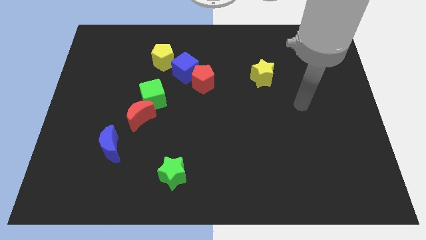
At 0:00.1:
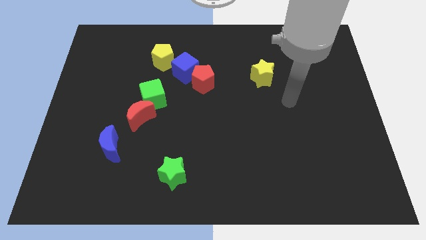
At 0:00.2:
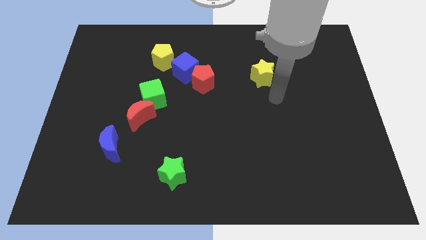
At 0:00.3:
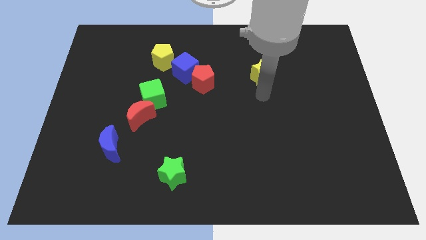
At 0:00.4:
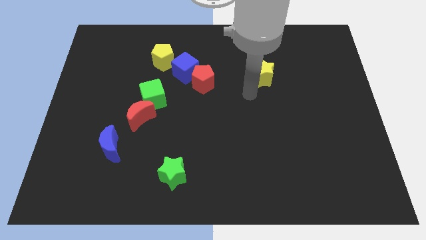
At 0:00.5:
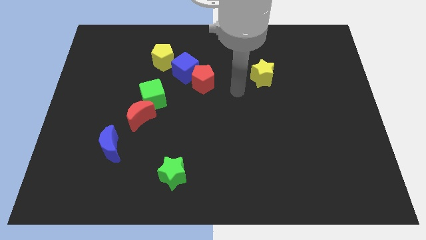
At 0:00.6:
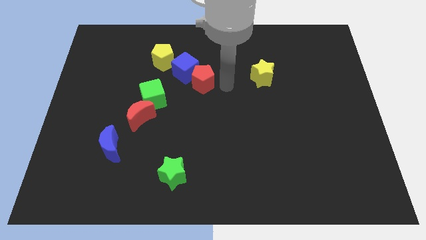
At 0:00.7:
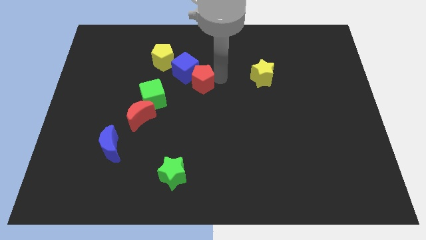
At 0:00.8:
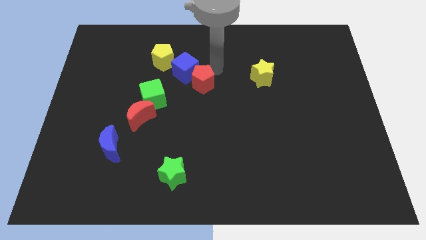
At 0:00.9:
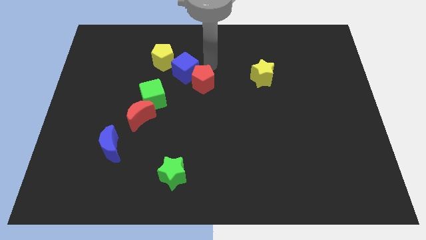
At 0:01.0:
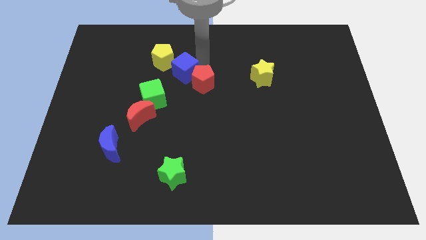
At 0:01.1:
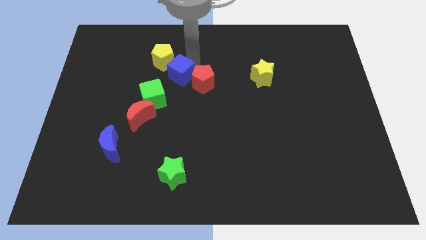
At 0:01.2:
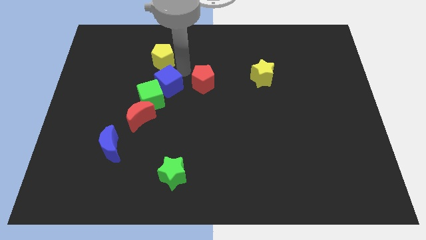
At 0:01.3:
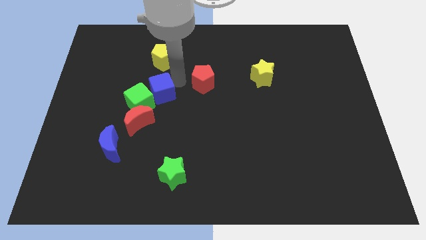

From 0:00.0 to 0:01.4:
separate the red pentagon from the blue cube

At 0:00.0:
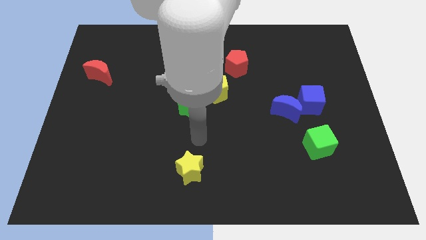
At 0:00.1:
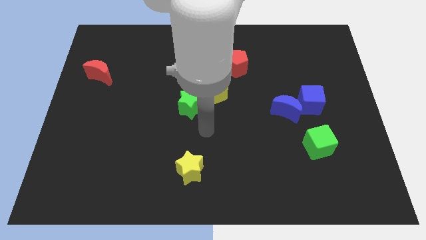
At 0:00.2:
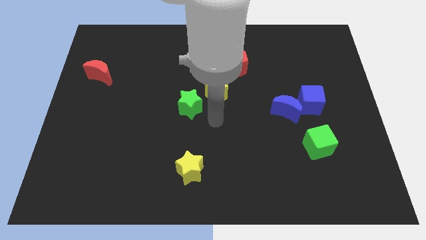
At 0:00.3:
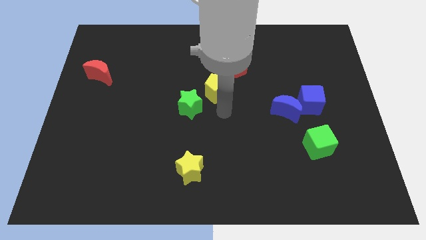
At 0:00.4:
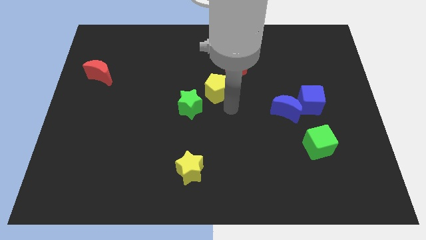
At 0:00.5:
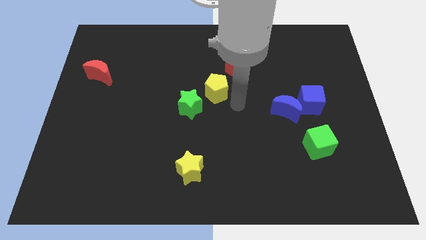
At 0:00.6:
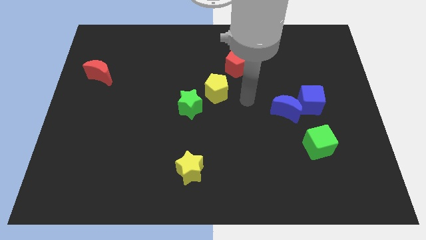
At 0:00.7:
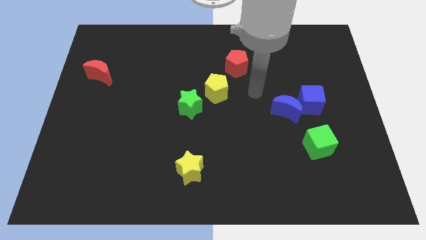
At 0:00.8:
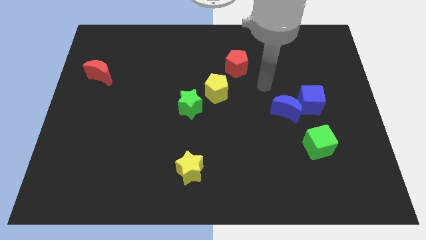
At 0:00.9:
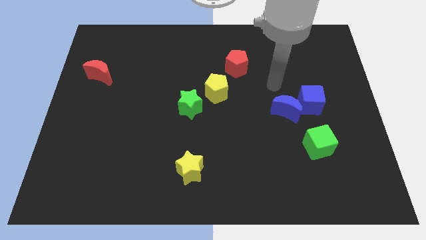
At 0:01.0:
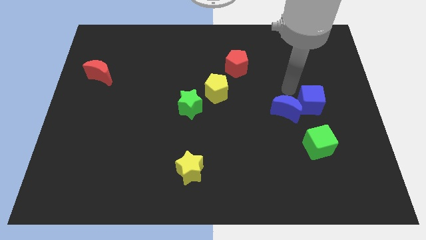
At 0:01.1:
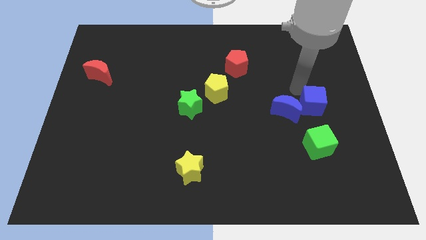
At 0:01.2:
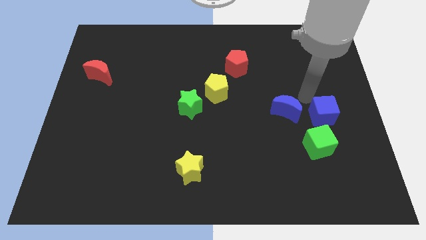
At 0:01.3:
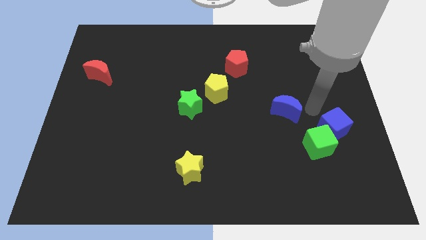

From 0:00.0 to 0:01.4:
pull the blue moon apart from the blue cube

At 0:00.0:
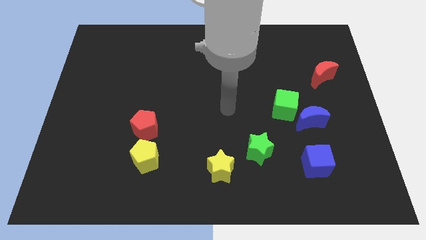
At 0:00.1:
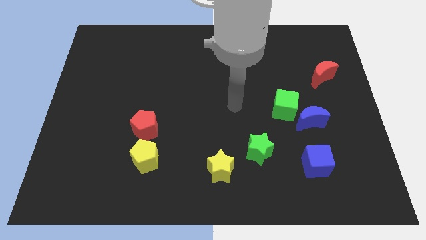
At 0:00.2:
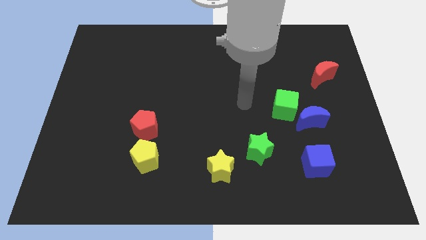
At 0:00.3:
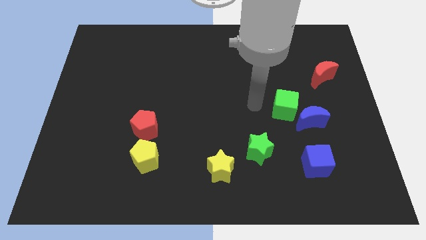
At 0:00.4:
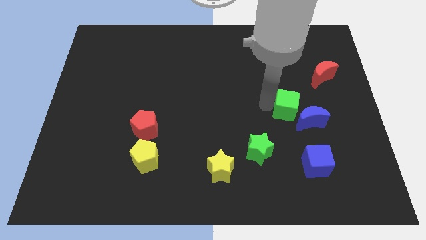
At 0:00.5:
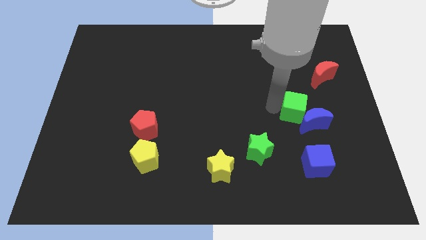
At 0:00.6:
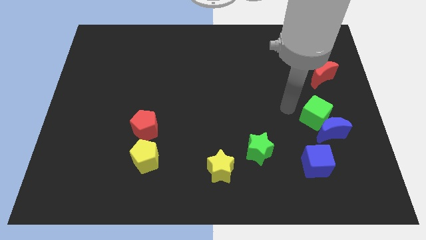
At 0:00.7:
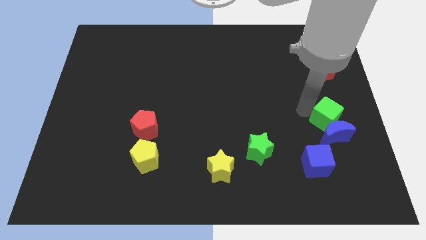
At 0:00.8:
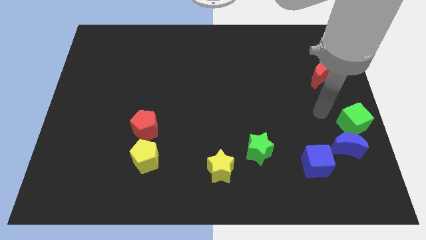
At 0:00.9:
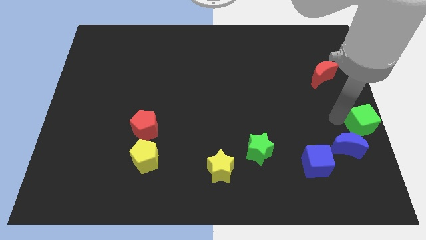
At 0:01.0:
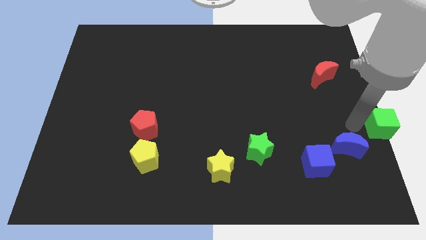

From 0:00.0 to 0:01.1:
pull the blue moon apart from the green cube

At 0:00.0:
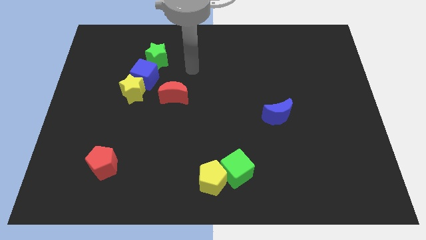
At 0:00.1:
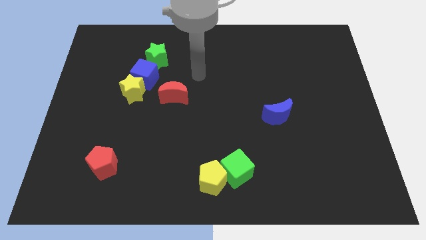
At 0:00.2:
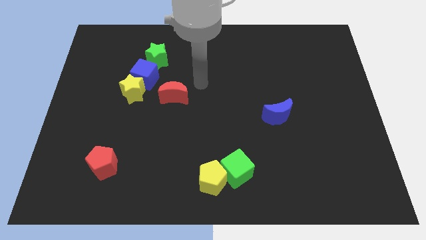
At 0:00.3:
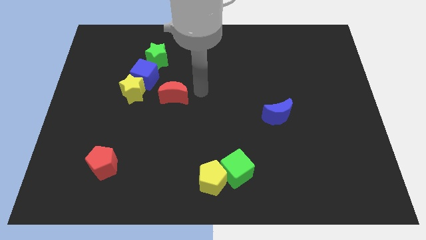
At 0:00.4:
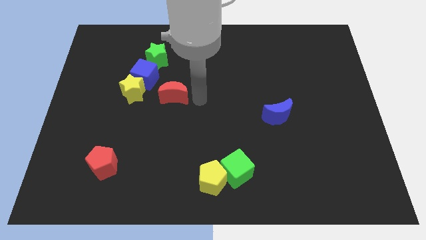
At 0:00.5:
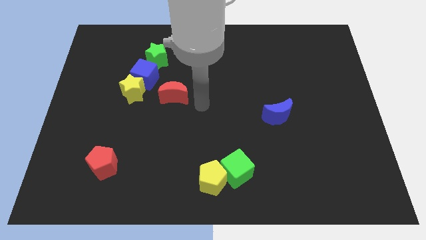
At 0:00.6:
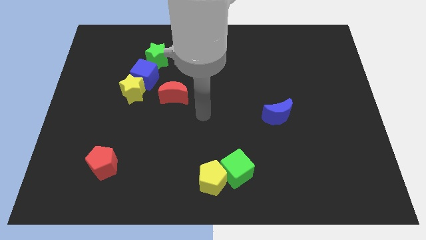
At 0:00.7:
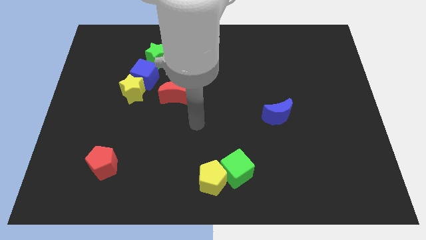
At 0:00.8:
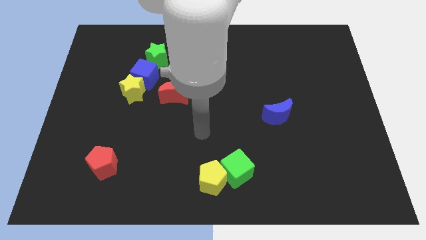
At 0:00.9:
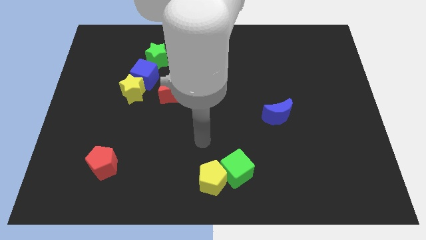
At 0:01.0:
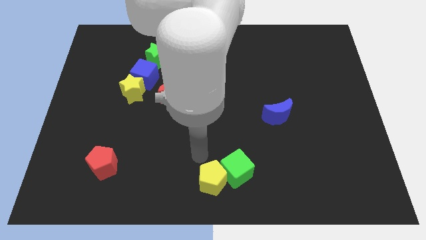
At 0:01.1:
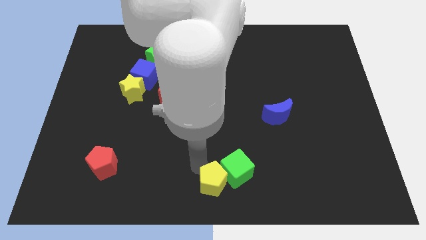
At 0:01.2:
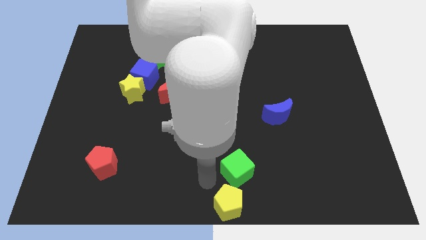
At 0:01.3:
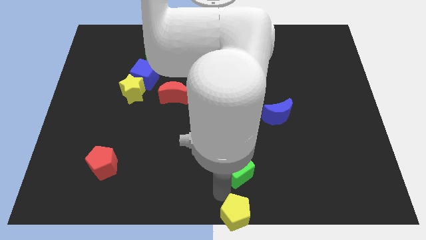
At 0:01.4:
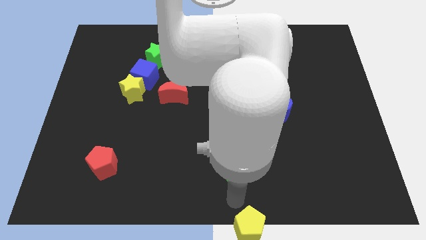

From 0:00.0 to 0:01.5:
move the green cube away from the yellow pentagon

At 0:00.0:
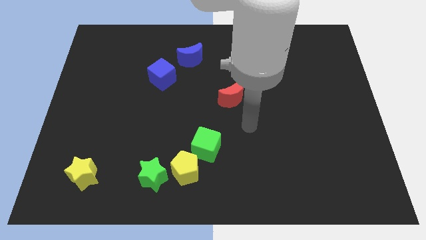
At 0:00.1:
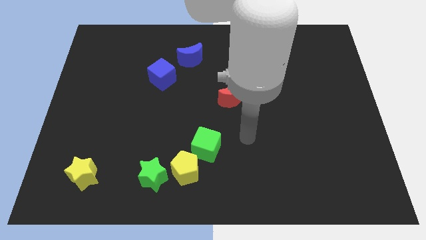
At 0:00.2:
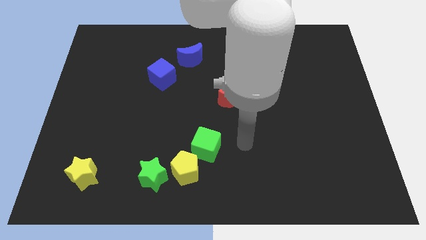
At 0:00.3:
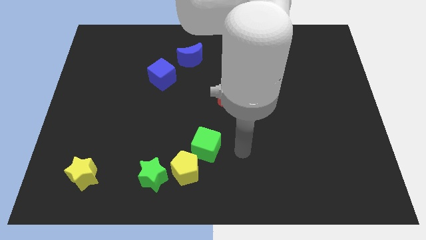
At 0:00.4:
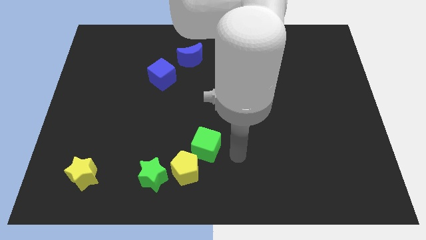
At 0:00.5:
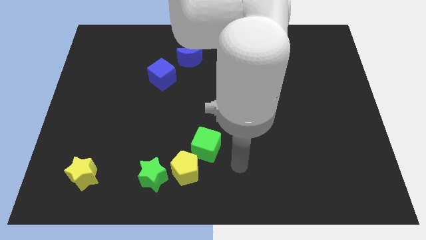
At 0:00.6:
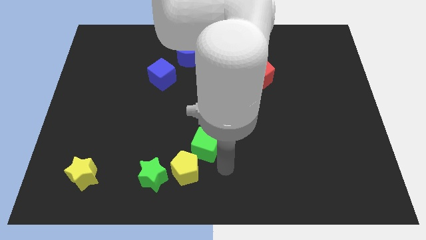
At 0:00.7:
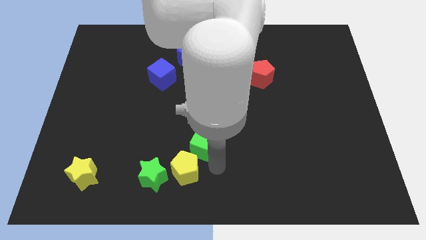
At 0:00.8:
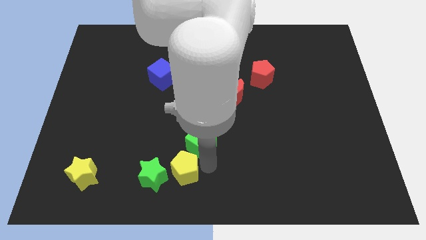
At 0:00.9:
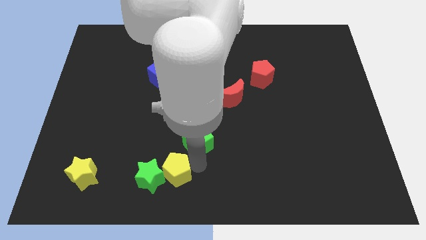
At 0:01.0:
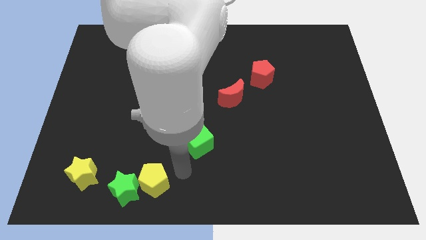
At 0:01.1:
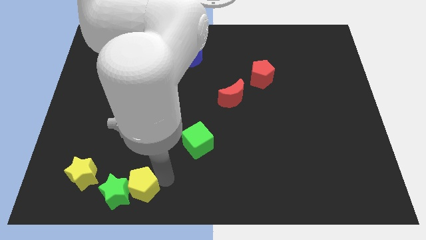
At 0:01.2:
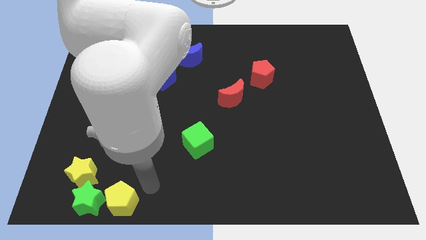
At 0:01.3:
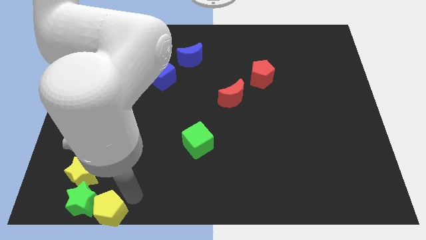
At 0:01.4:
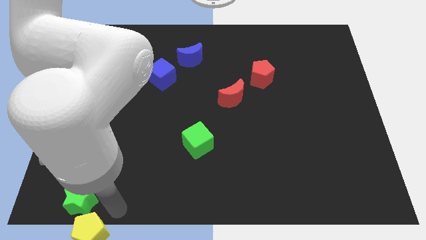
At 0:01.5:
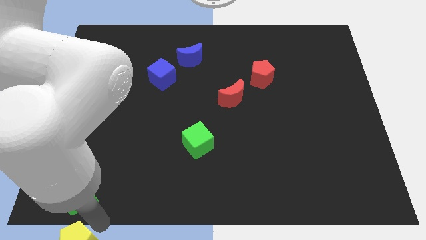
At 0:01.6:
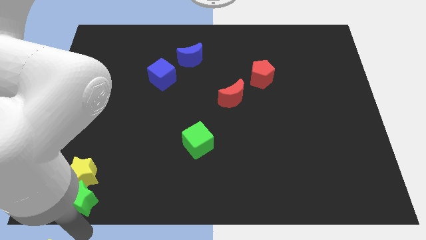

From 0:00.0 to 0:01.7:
move the green star away from the yellow pentagon

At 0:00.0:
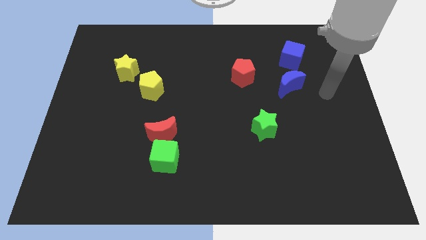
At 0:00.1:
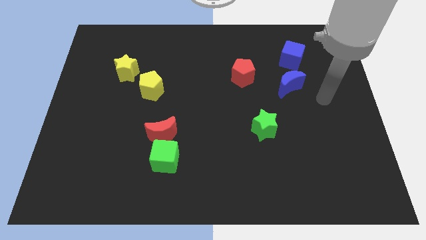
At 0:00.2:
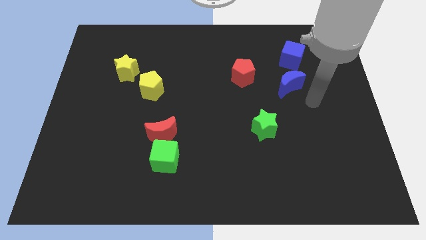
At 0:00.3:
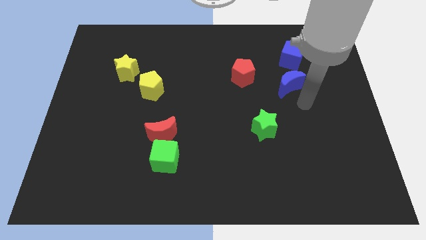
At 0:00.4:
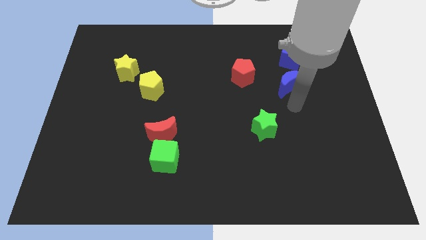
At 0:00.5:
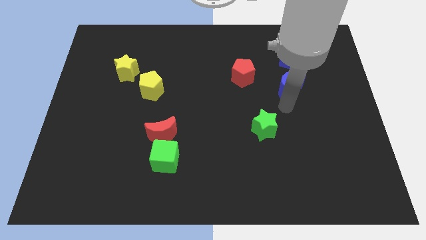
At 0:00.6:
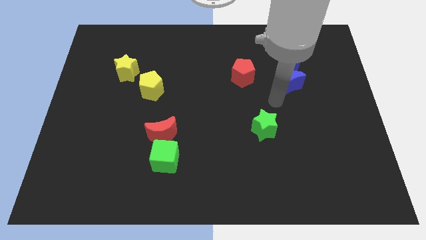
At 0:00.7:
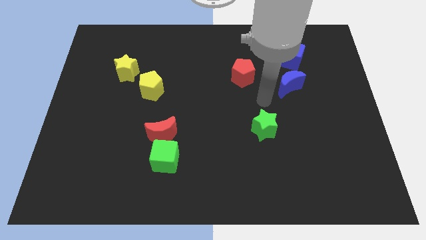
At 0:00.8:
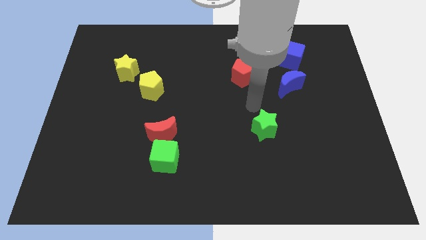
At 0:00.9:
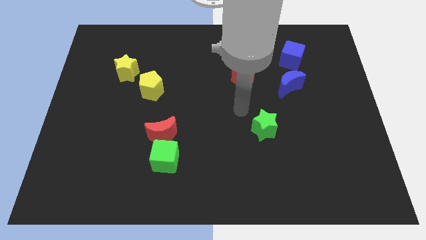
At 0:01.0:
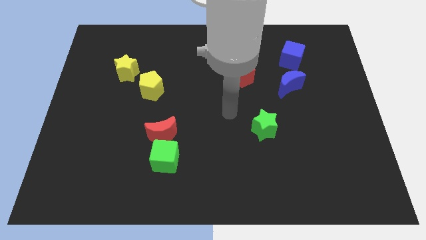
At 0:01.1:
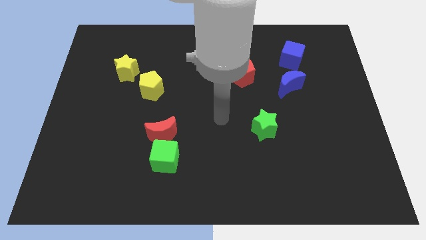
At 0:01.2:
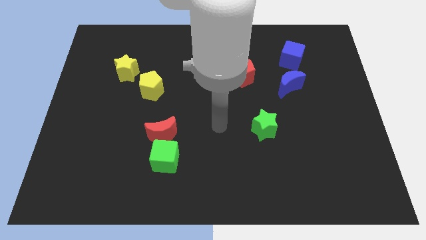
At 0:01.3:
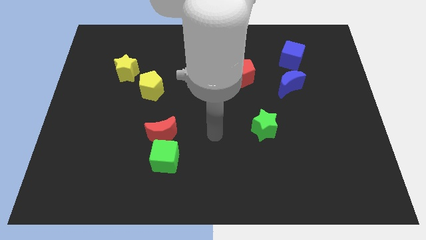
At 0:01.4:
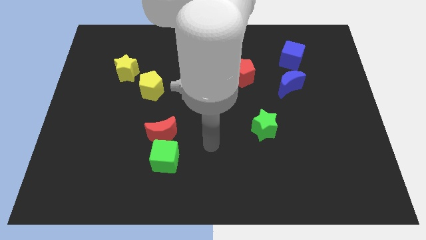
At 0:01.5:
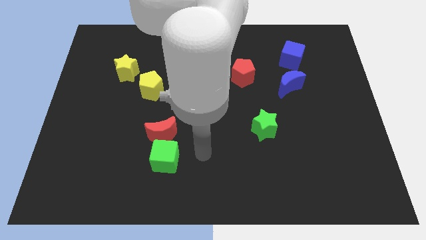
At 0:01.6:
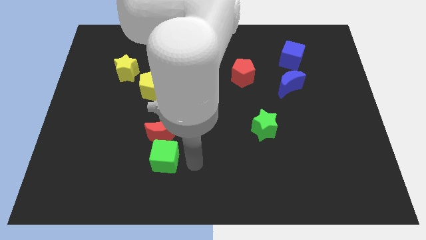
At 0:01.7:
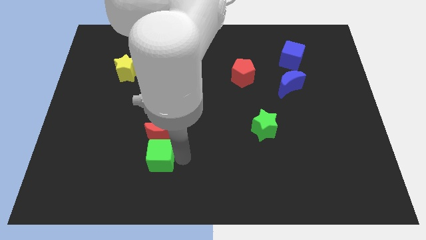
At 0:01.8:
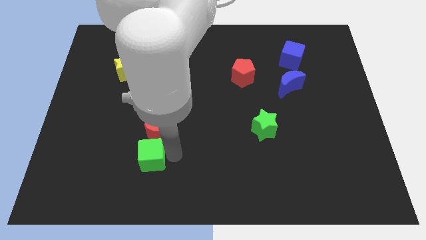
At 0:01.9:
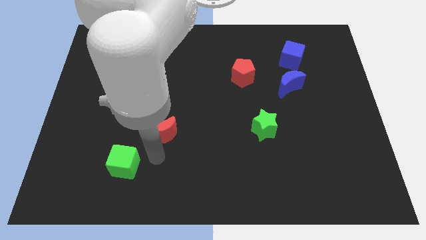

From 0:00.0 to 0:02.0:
separate the red moon from the green cube

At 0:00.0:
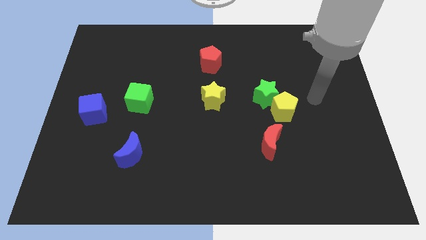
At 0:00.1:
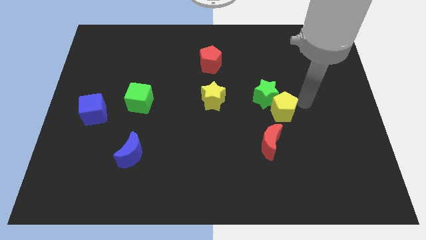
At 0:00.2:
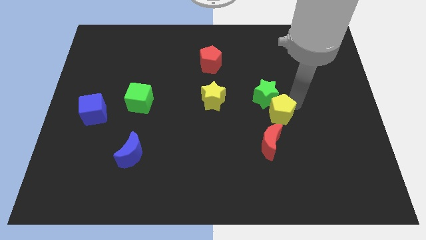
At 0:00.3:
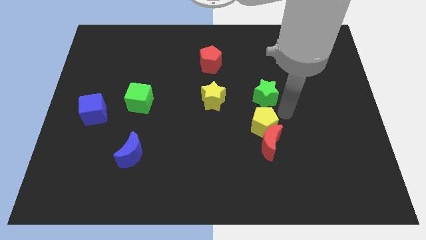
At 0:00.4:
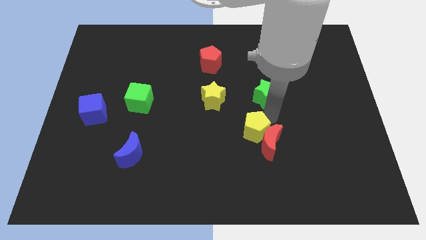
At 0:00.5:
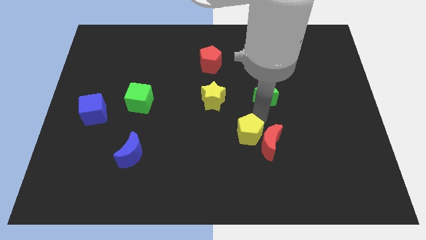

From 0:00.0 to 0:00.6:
separate the green star from the yellow pentagon
